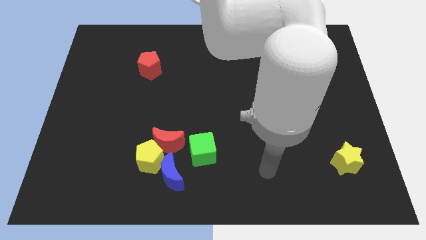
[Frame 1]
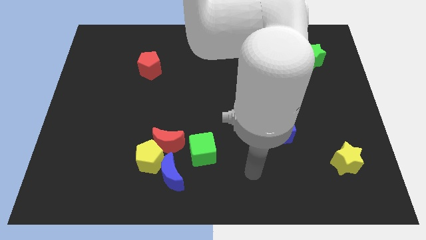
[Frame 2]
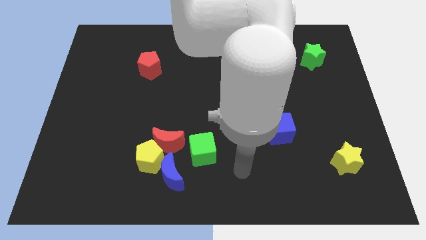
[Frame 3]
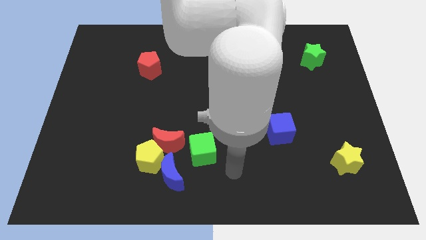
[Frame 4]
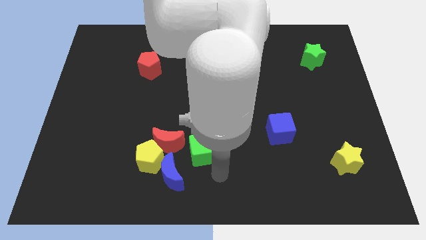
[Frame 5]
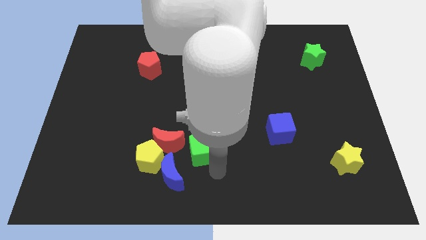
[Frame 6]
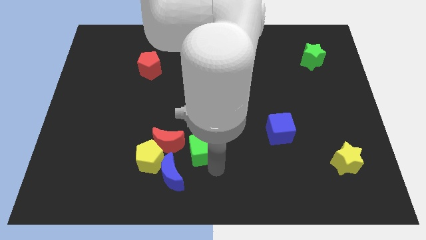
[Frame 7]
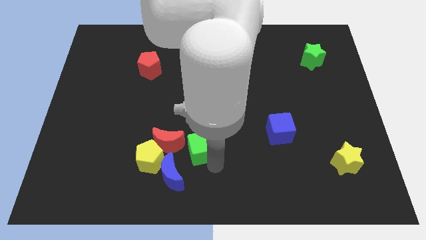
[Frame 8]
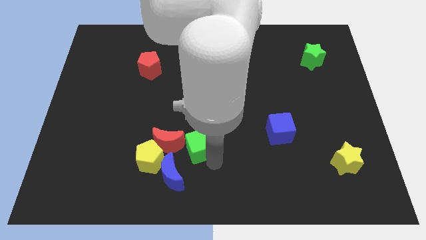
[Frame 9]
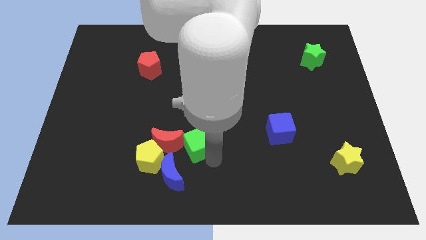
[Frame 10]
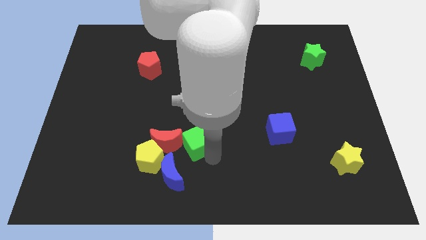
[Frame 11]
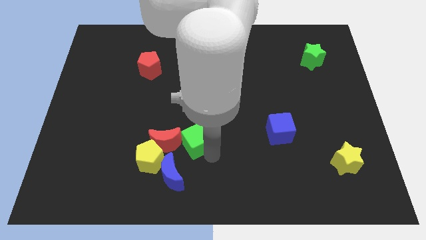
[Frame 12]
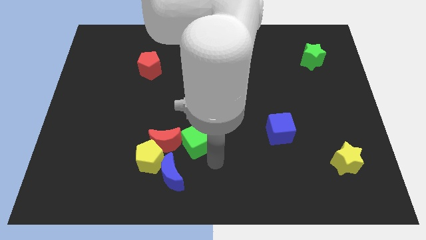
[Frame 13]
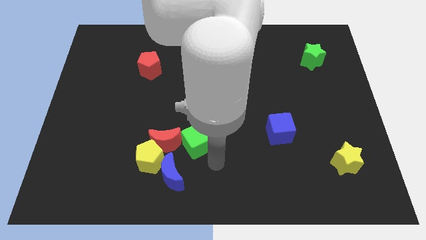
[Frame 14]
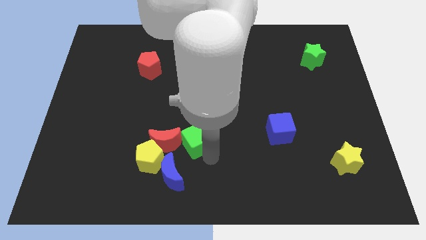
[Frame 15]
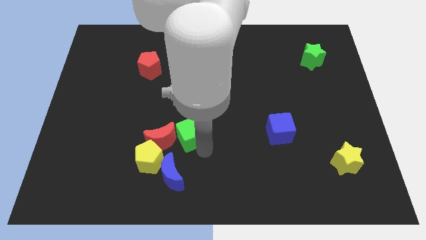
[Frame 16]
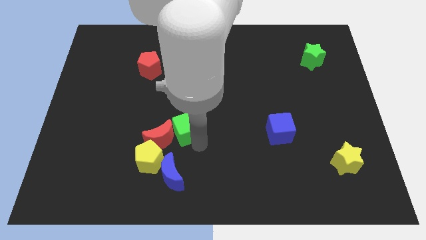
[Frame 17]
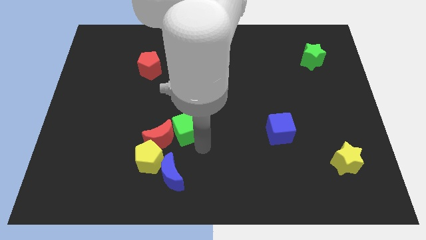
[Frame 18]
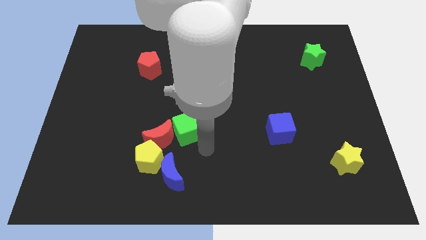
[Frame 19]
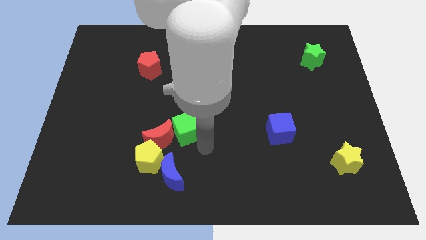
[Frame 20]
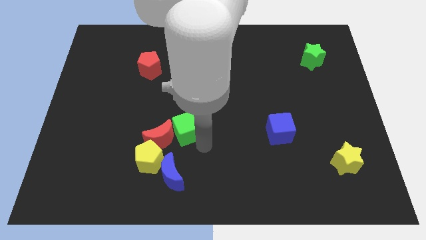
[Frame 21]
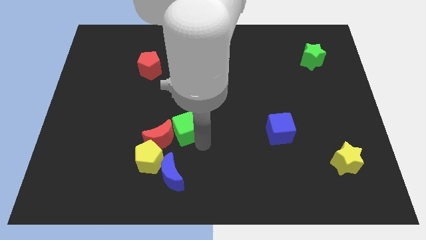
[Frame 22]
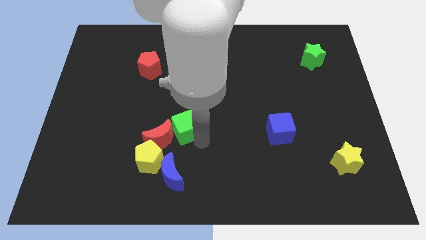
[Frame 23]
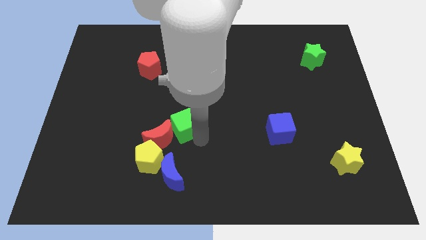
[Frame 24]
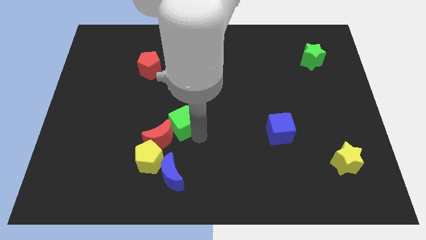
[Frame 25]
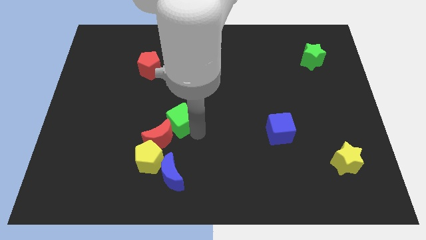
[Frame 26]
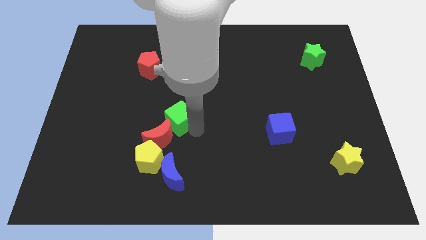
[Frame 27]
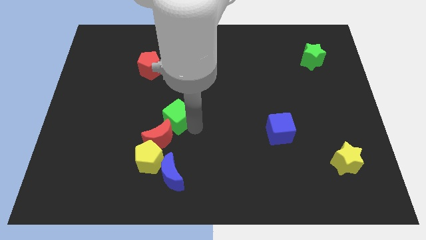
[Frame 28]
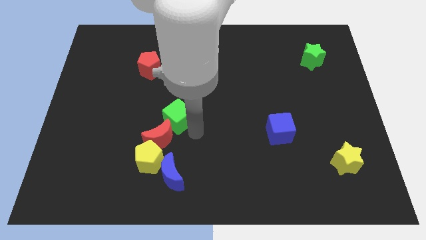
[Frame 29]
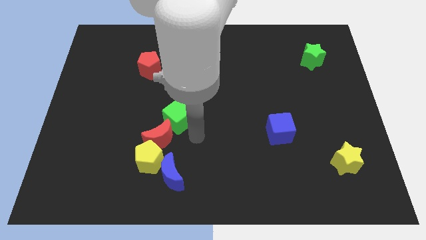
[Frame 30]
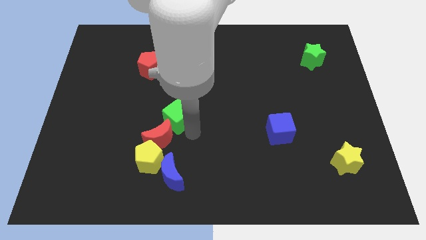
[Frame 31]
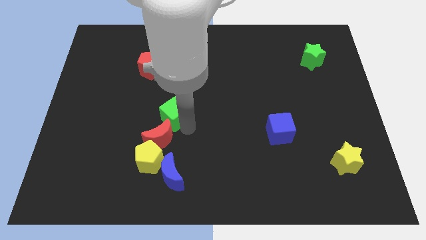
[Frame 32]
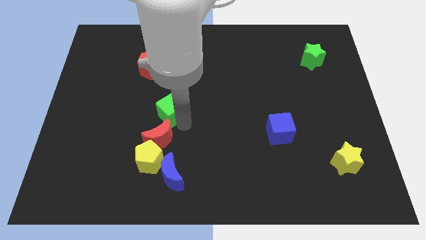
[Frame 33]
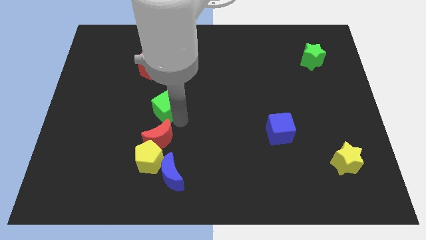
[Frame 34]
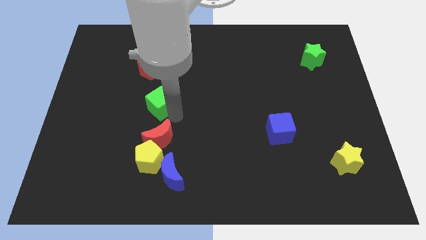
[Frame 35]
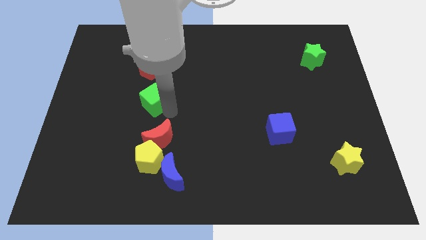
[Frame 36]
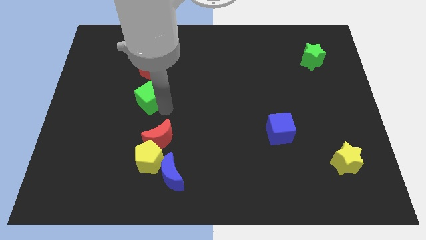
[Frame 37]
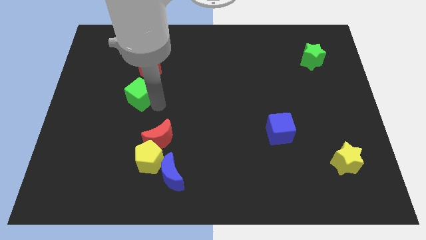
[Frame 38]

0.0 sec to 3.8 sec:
push the green cube diagonally upwards and to the left

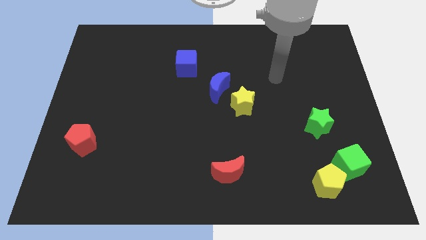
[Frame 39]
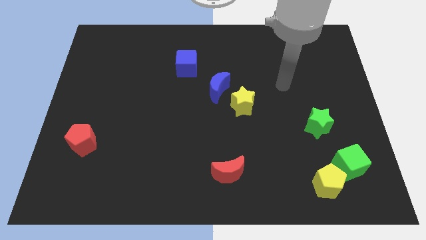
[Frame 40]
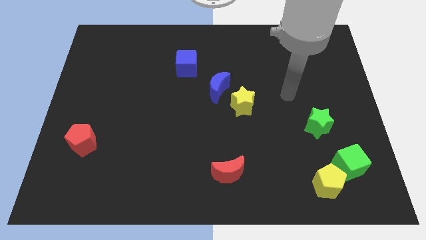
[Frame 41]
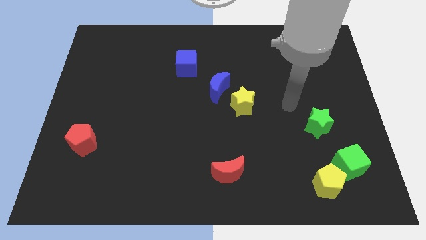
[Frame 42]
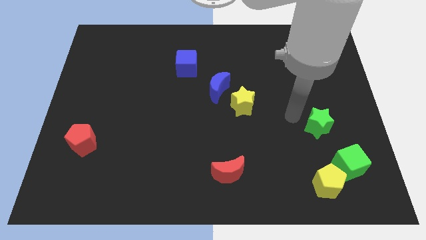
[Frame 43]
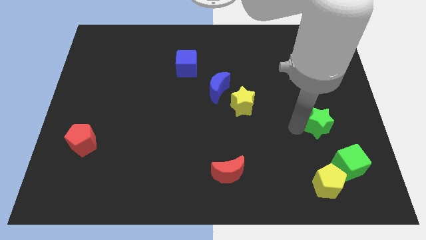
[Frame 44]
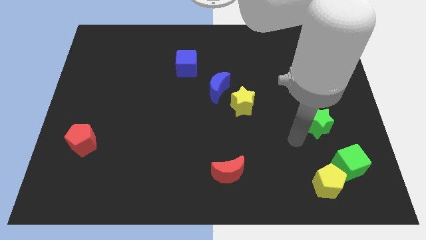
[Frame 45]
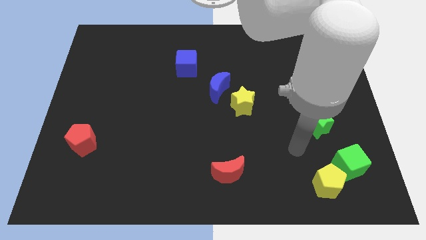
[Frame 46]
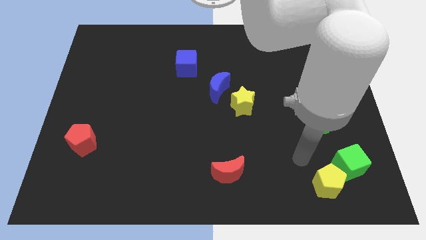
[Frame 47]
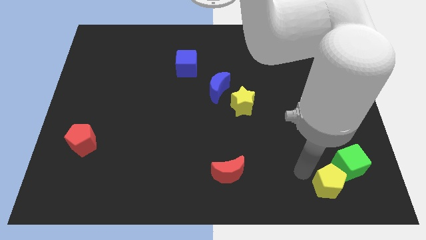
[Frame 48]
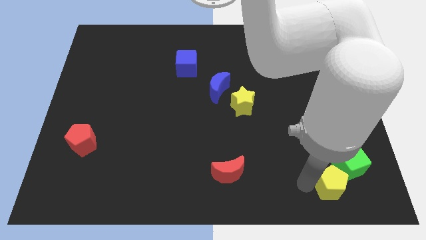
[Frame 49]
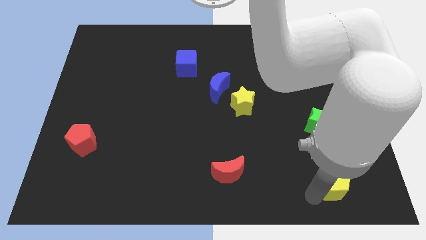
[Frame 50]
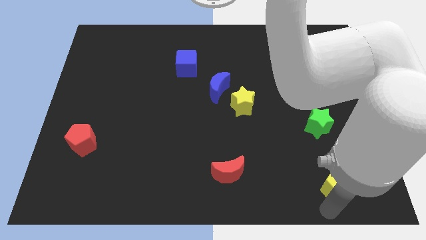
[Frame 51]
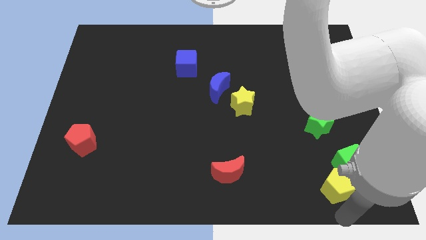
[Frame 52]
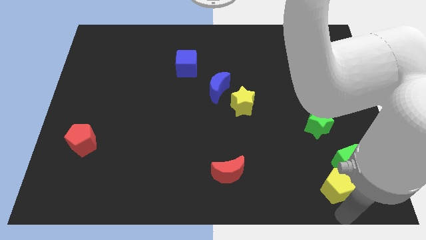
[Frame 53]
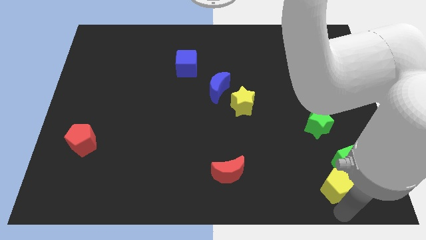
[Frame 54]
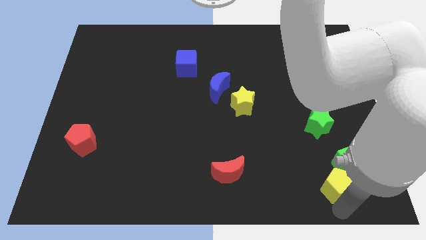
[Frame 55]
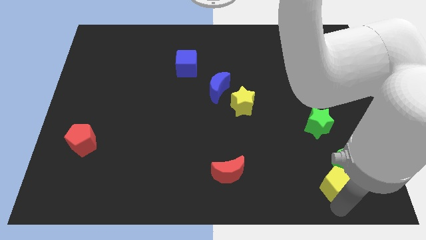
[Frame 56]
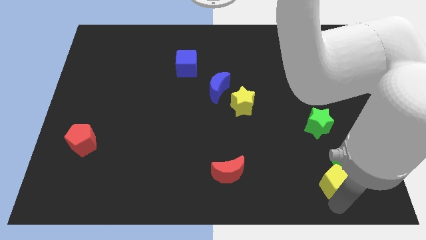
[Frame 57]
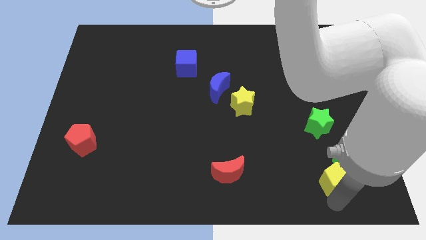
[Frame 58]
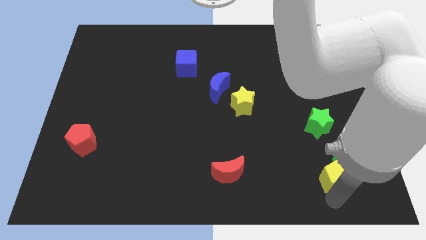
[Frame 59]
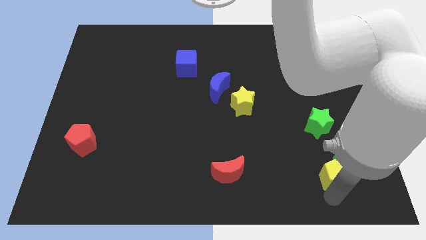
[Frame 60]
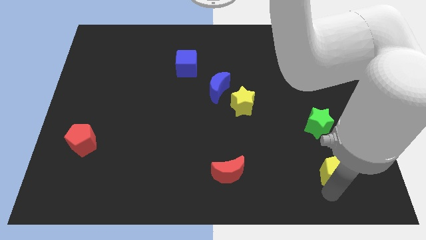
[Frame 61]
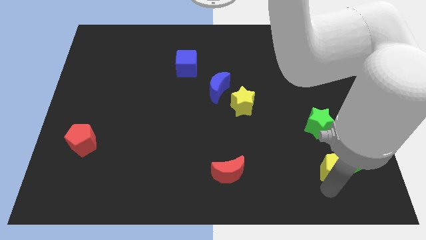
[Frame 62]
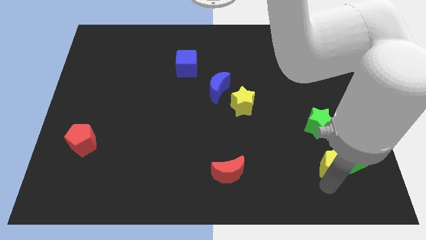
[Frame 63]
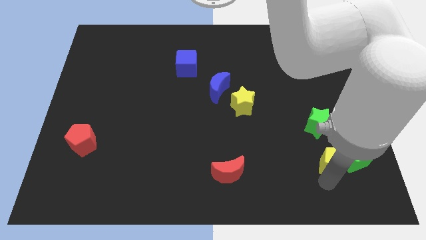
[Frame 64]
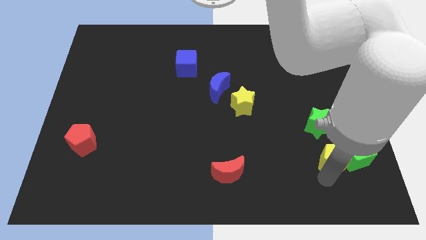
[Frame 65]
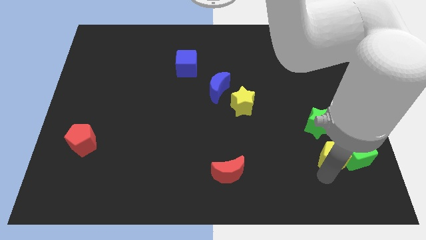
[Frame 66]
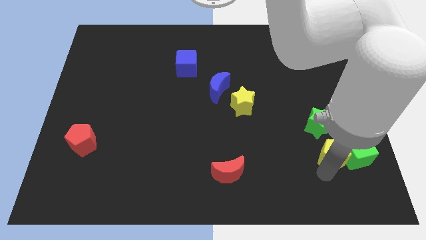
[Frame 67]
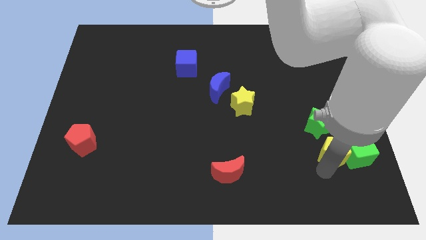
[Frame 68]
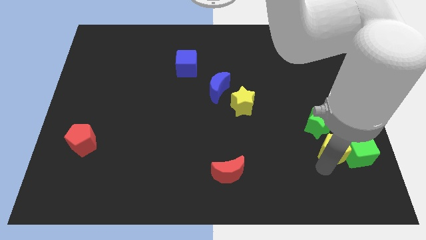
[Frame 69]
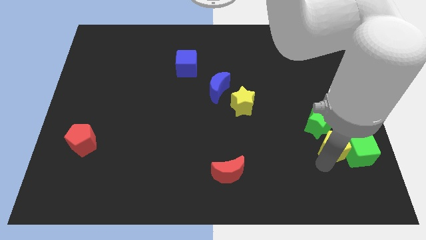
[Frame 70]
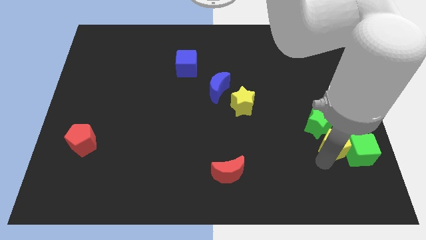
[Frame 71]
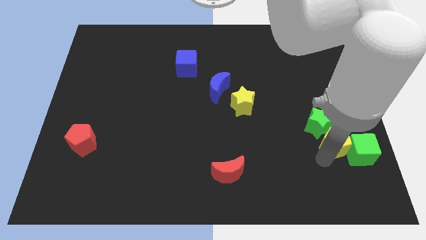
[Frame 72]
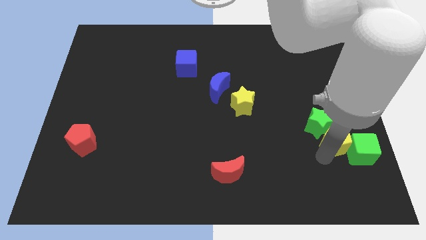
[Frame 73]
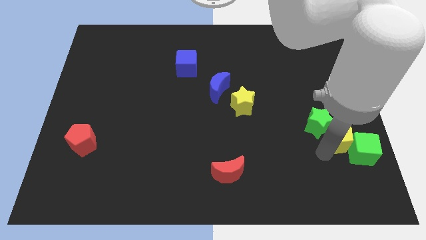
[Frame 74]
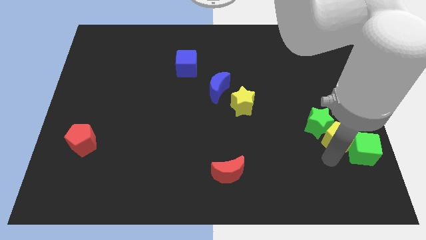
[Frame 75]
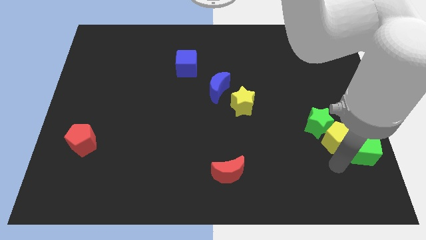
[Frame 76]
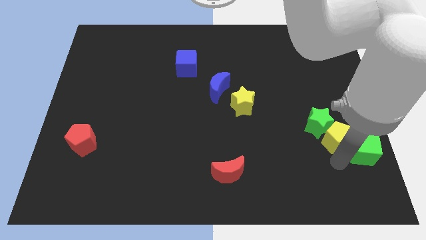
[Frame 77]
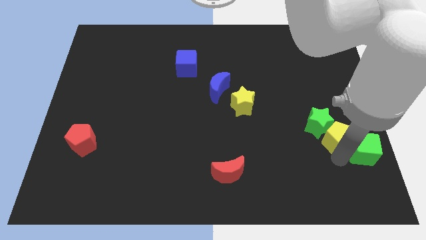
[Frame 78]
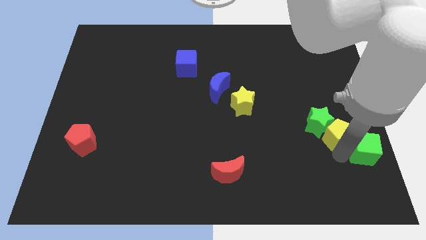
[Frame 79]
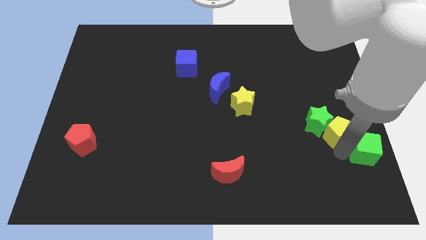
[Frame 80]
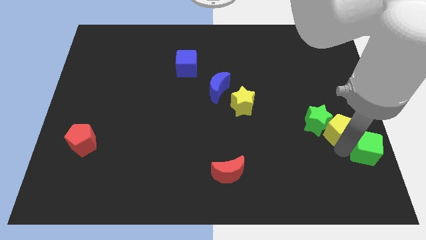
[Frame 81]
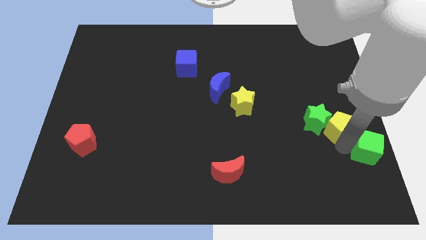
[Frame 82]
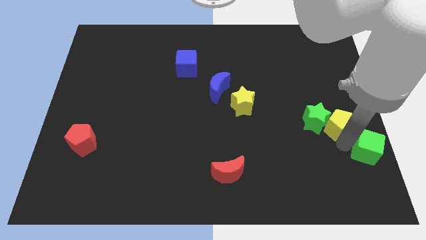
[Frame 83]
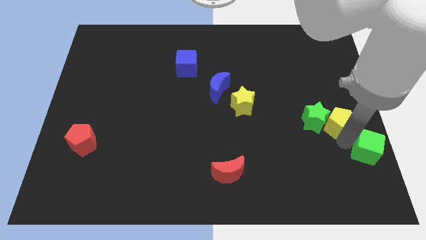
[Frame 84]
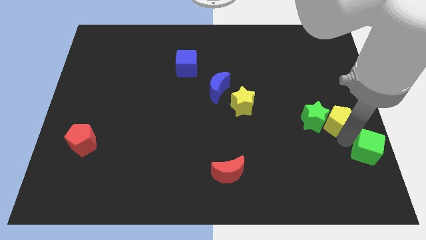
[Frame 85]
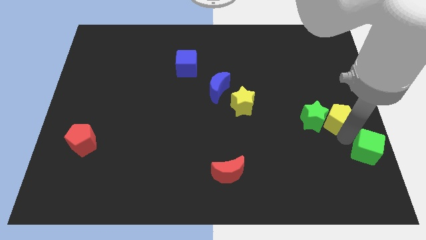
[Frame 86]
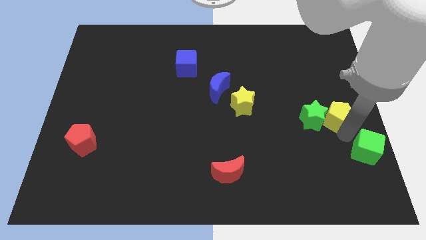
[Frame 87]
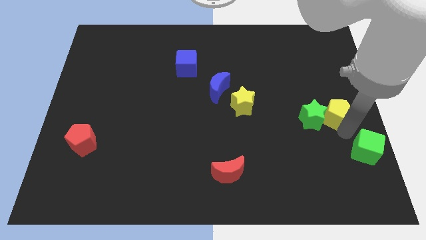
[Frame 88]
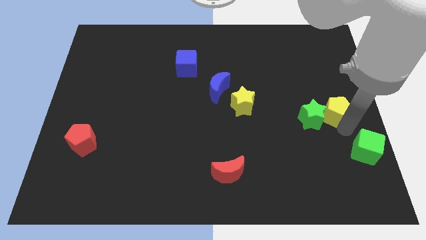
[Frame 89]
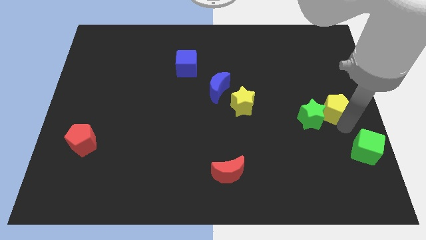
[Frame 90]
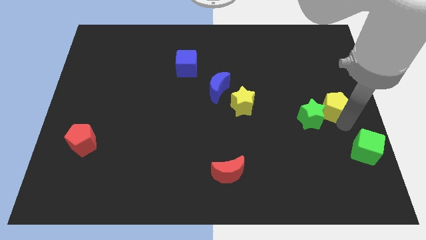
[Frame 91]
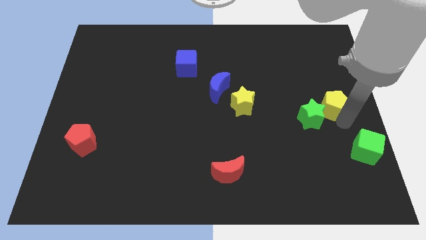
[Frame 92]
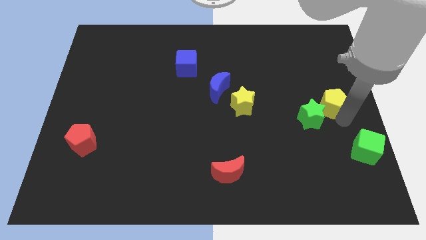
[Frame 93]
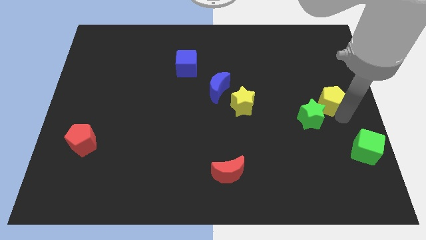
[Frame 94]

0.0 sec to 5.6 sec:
slide the yellow pentagon upwards
